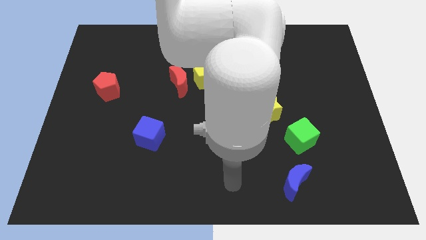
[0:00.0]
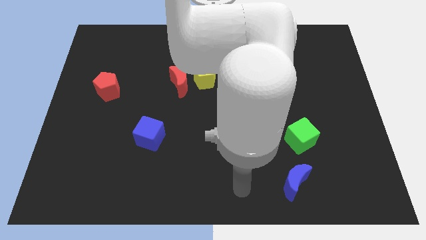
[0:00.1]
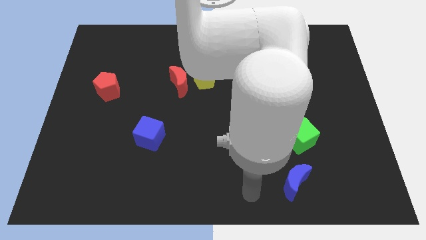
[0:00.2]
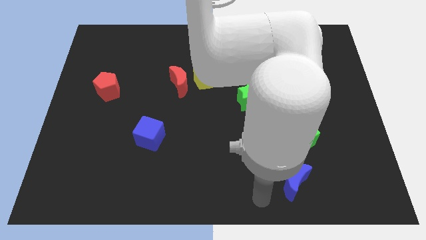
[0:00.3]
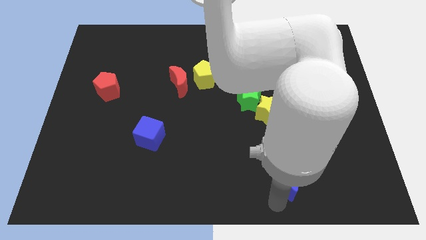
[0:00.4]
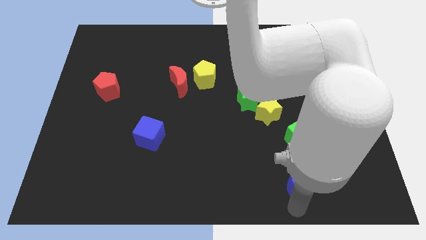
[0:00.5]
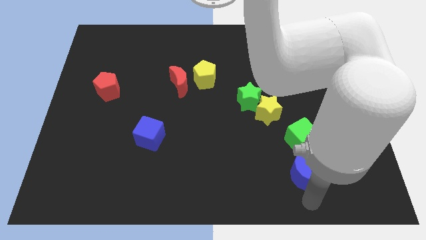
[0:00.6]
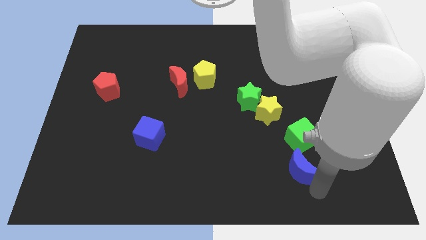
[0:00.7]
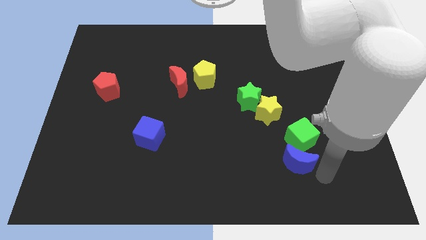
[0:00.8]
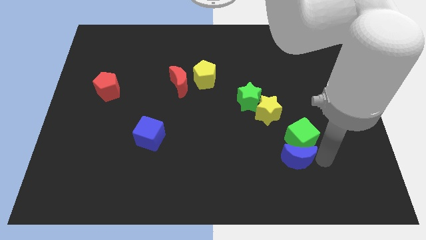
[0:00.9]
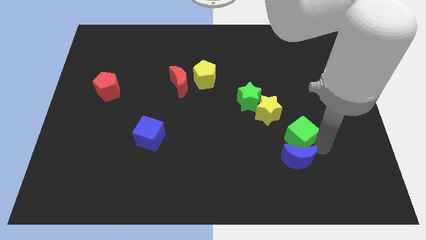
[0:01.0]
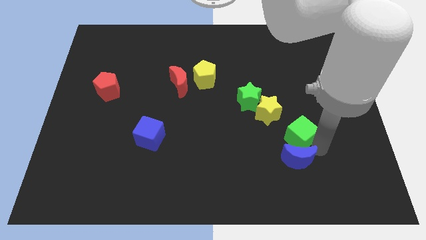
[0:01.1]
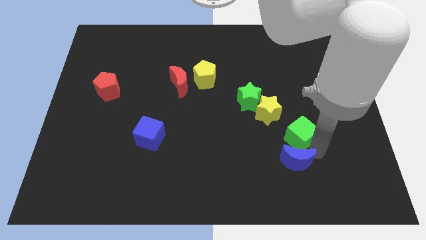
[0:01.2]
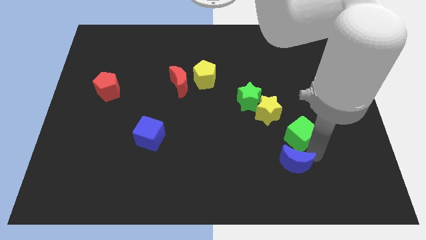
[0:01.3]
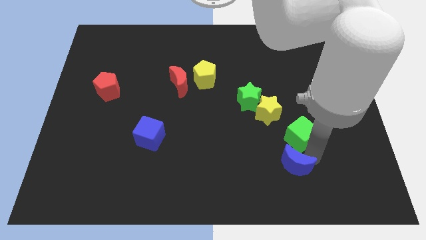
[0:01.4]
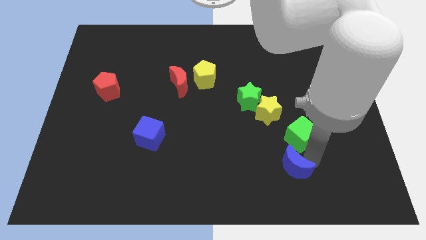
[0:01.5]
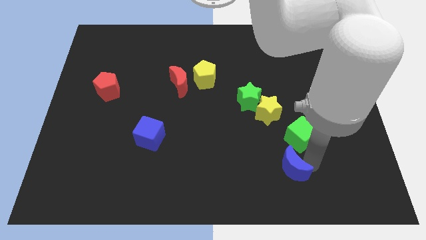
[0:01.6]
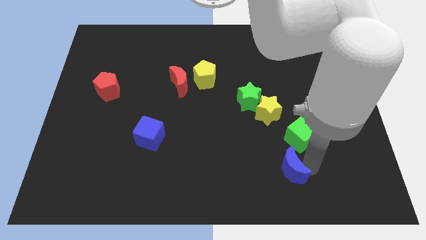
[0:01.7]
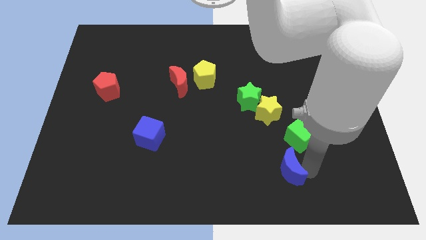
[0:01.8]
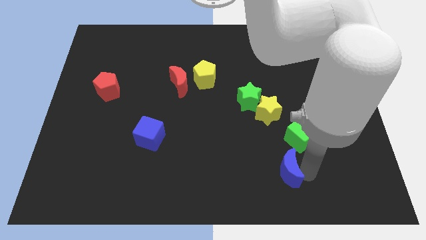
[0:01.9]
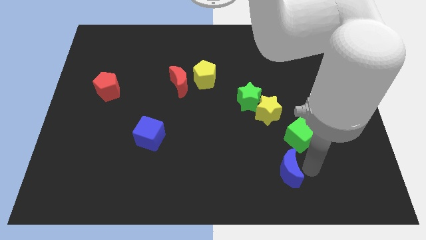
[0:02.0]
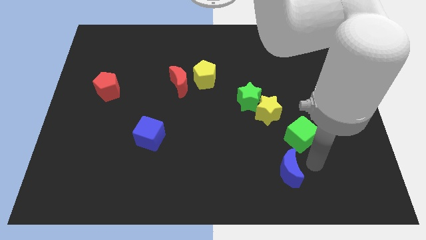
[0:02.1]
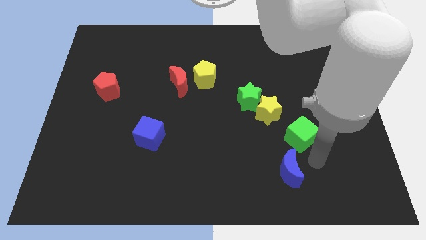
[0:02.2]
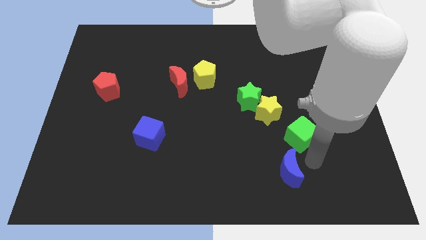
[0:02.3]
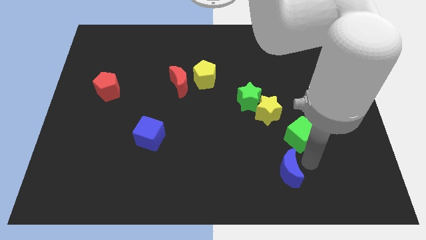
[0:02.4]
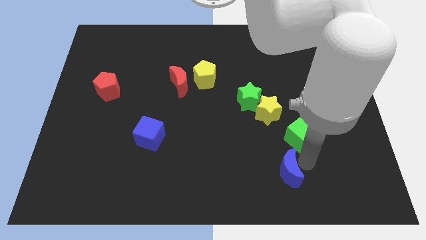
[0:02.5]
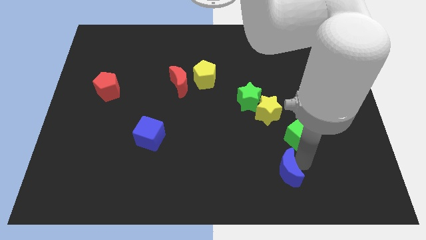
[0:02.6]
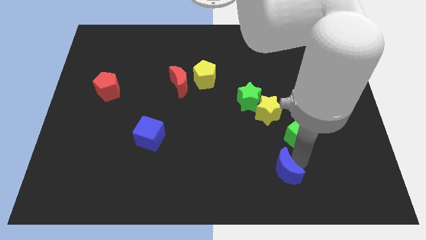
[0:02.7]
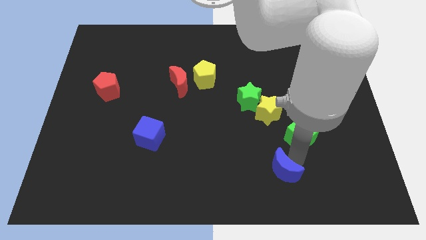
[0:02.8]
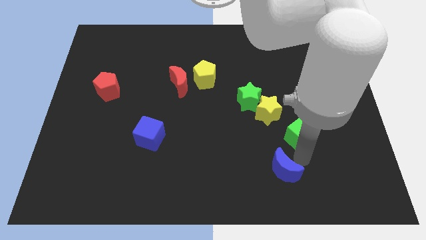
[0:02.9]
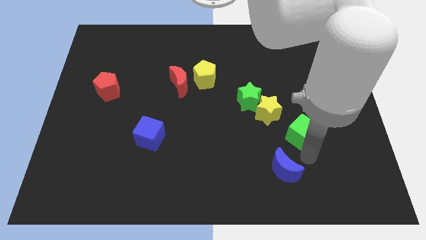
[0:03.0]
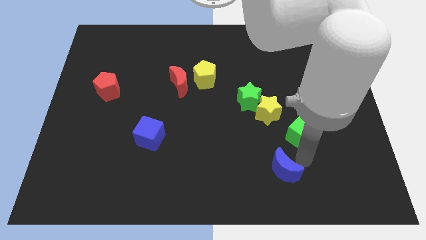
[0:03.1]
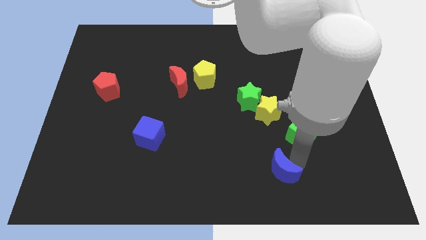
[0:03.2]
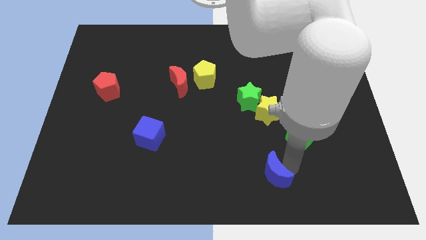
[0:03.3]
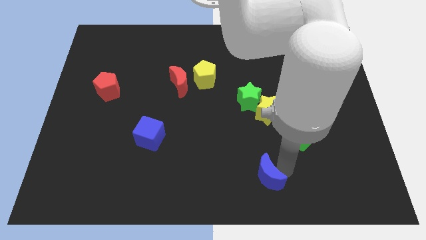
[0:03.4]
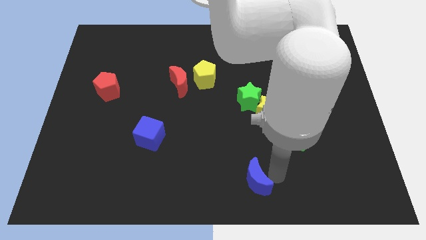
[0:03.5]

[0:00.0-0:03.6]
slide the blue moon to the left slightly

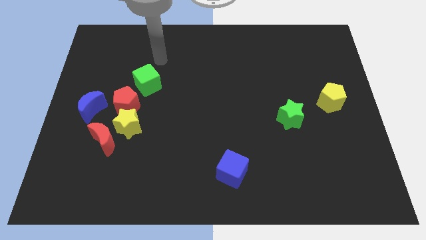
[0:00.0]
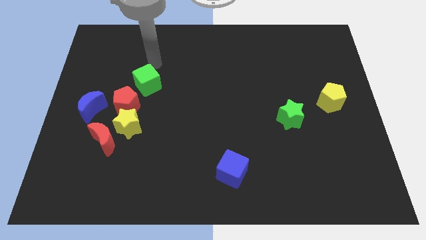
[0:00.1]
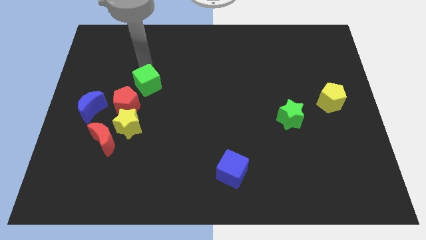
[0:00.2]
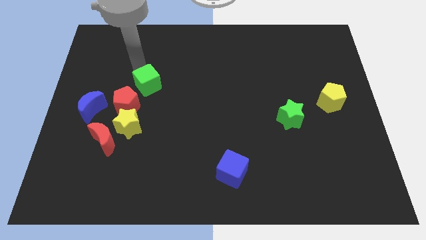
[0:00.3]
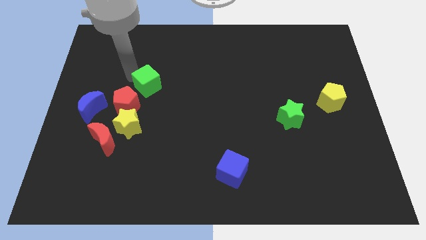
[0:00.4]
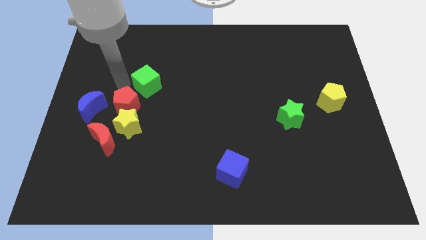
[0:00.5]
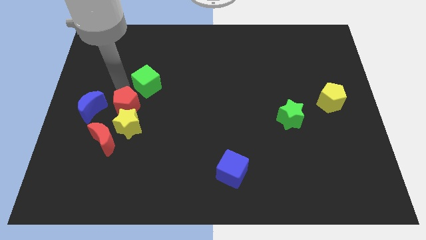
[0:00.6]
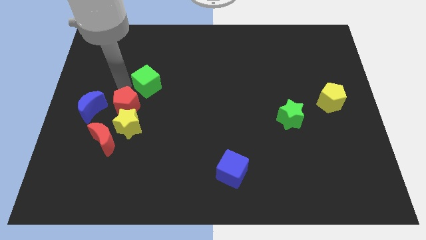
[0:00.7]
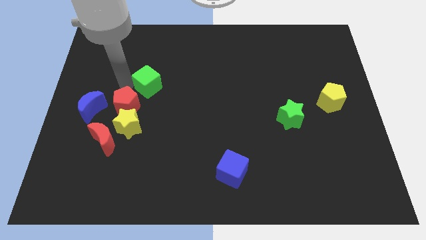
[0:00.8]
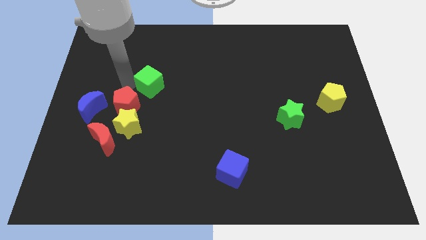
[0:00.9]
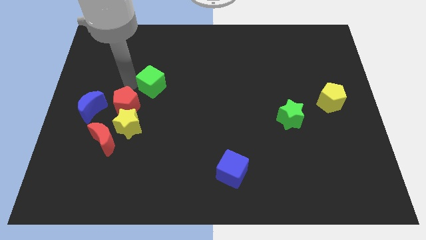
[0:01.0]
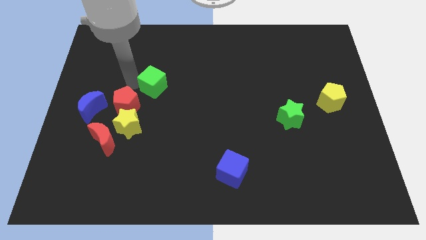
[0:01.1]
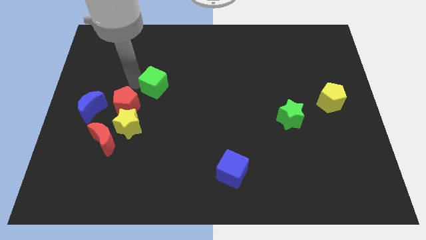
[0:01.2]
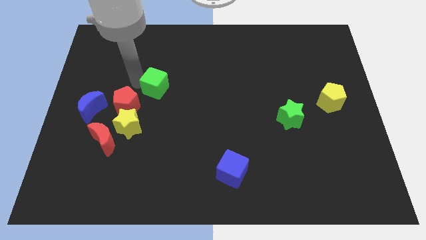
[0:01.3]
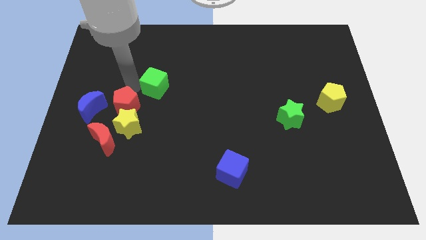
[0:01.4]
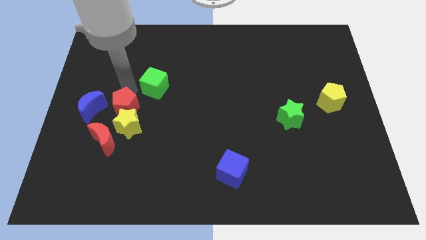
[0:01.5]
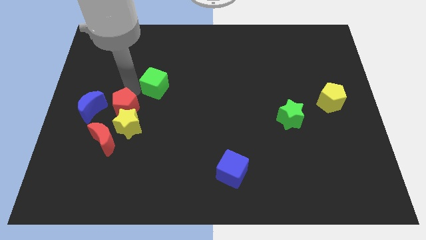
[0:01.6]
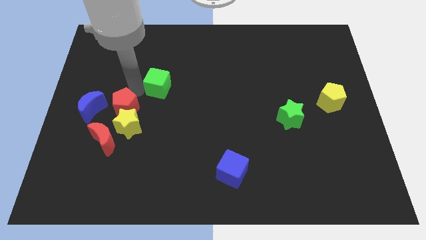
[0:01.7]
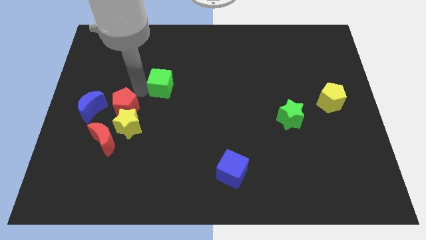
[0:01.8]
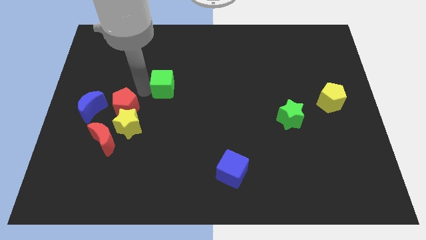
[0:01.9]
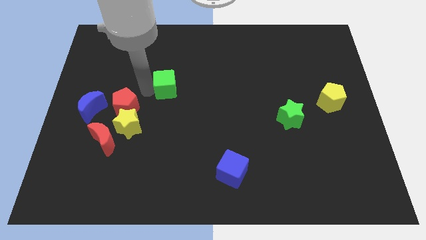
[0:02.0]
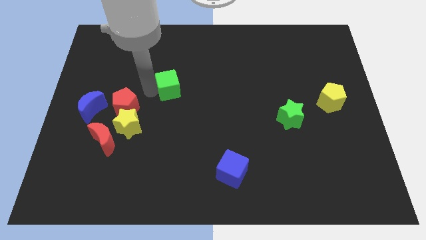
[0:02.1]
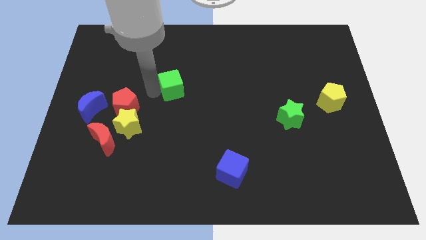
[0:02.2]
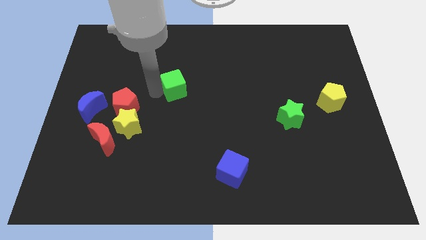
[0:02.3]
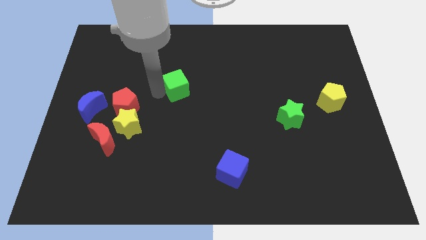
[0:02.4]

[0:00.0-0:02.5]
move the green cube a little to the right

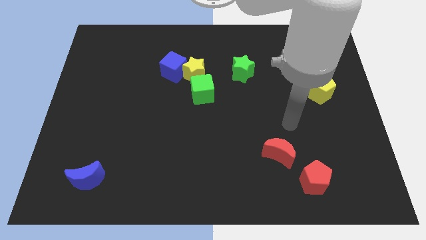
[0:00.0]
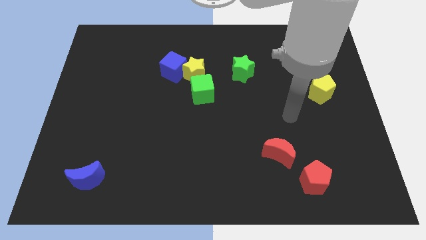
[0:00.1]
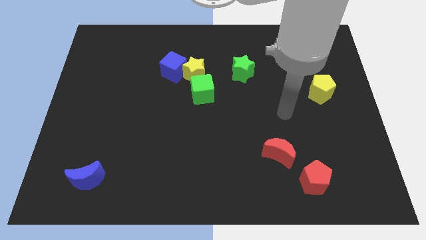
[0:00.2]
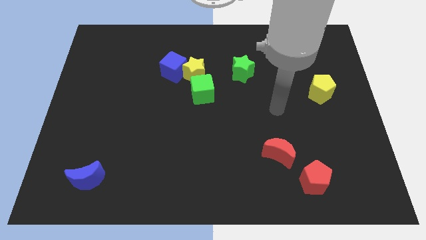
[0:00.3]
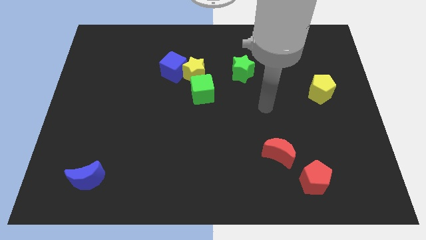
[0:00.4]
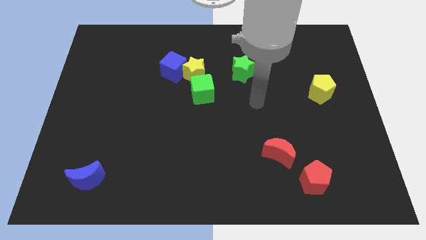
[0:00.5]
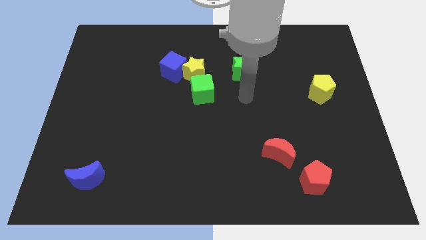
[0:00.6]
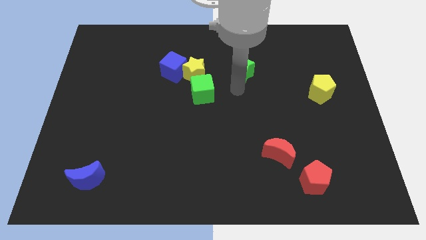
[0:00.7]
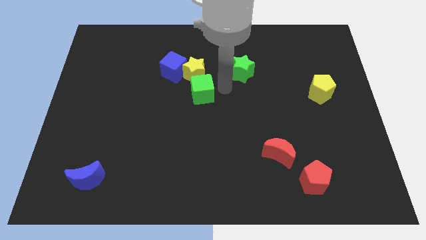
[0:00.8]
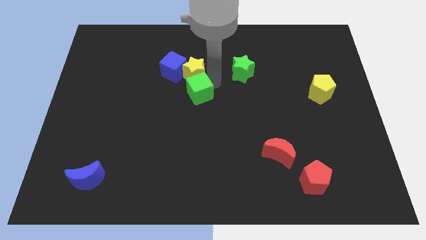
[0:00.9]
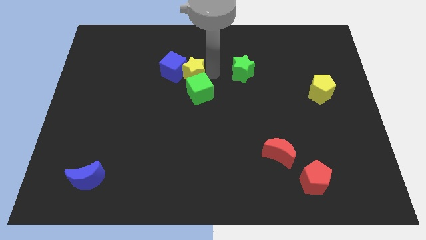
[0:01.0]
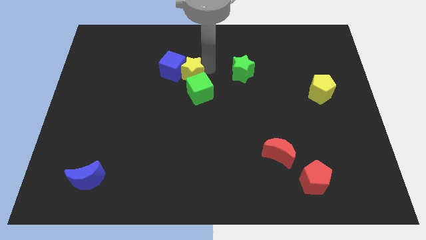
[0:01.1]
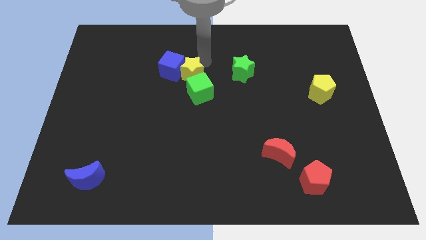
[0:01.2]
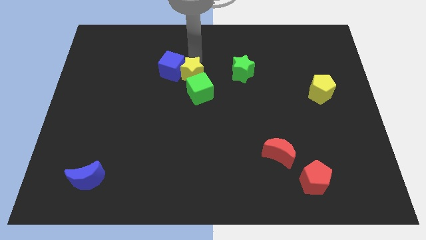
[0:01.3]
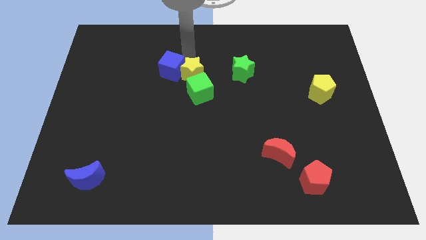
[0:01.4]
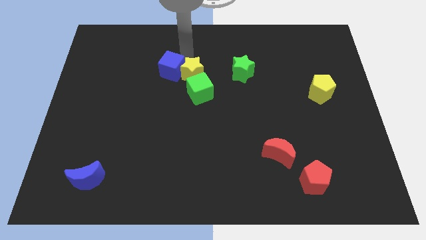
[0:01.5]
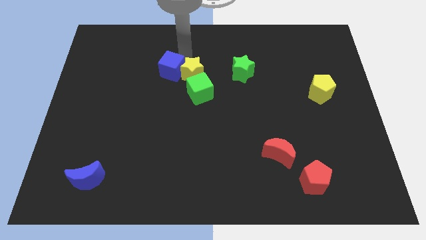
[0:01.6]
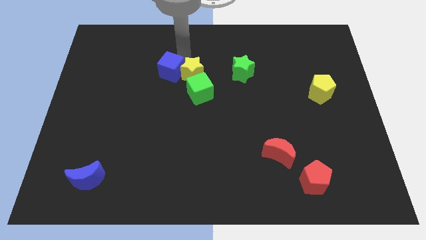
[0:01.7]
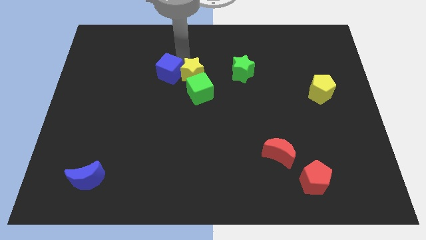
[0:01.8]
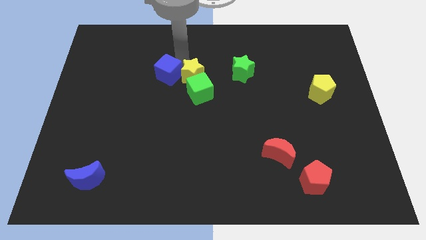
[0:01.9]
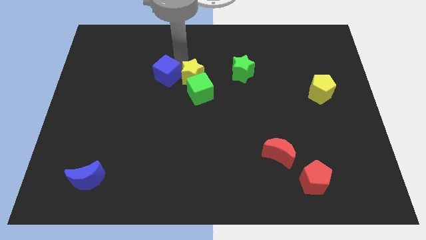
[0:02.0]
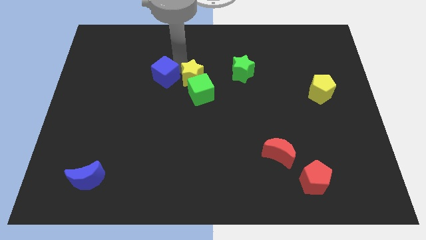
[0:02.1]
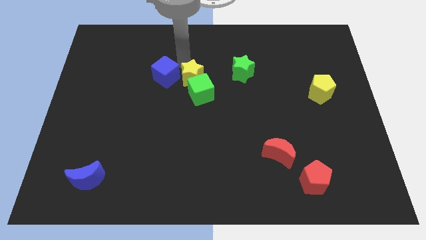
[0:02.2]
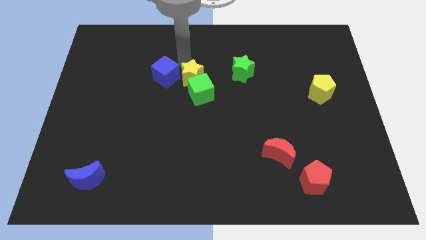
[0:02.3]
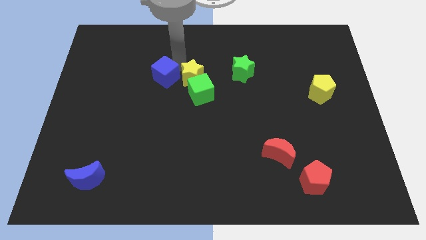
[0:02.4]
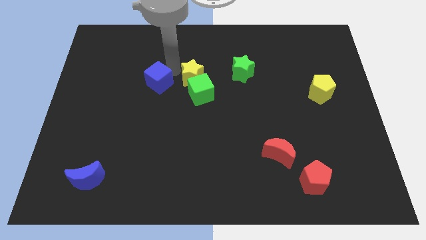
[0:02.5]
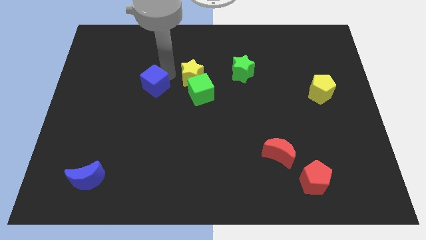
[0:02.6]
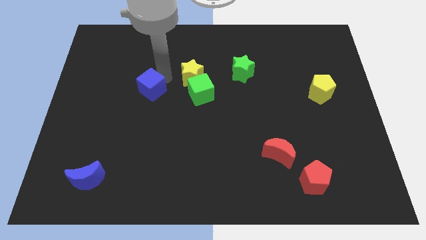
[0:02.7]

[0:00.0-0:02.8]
slide the blue cube somewhat downwards and to the left diagonally
